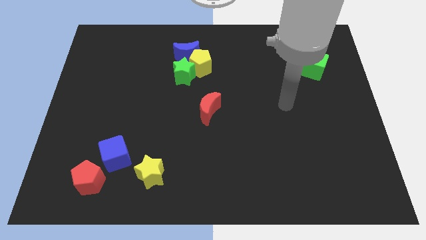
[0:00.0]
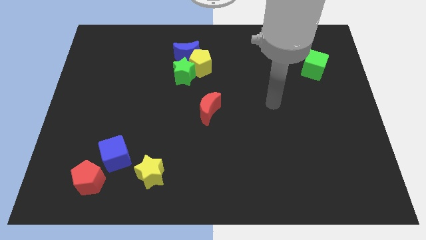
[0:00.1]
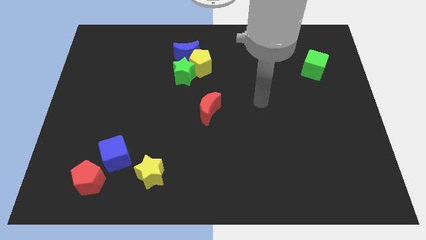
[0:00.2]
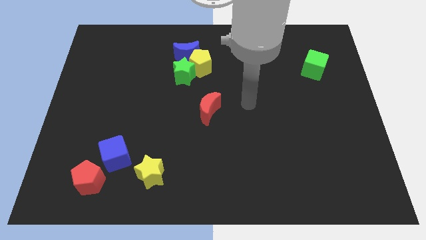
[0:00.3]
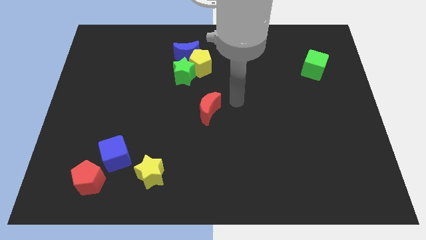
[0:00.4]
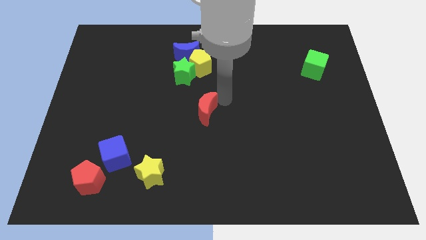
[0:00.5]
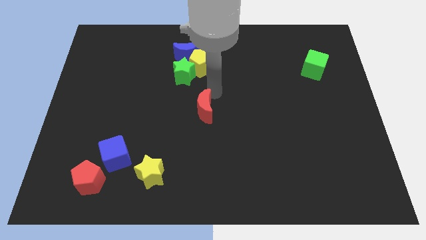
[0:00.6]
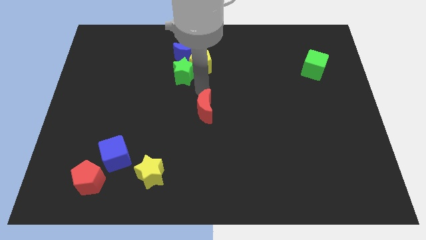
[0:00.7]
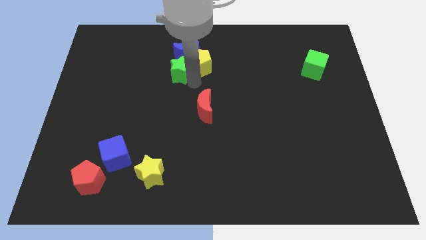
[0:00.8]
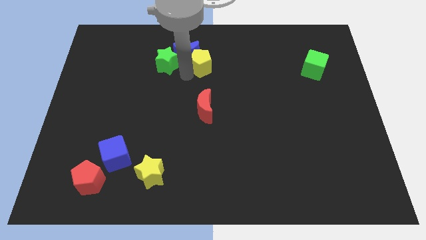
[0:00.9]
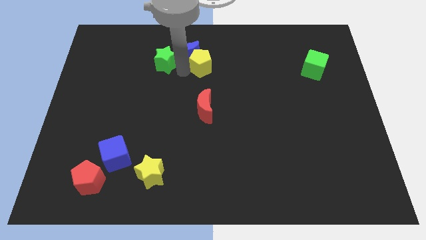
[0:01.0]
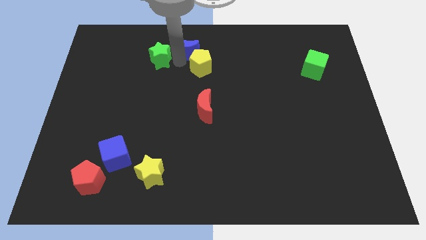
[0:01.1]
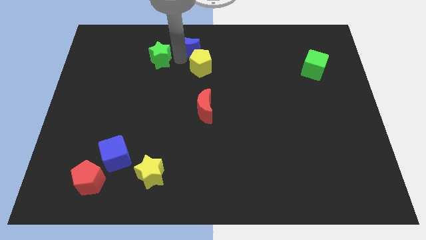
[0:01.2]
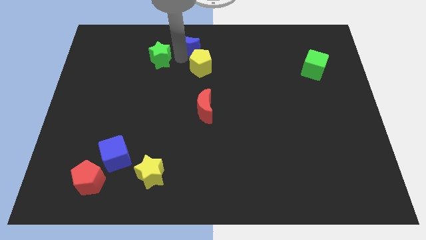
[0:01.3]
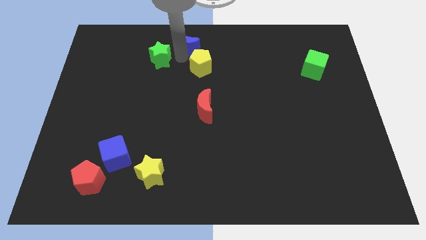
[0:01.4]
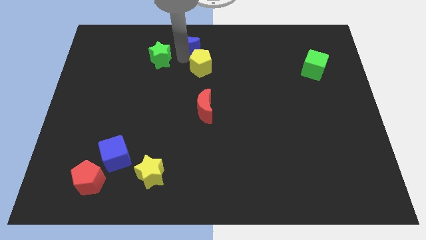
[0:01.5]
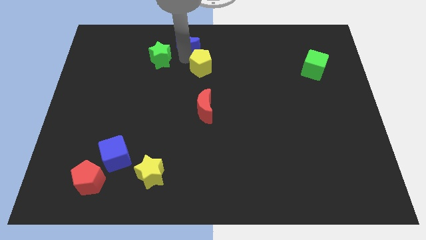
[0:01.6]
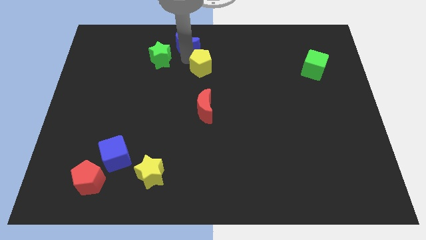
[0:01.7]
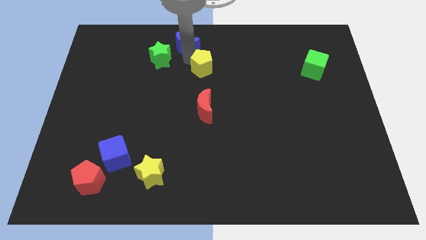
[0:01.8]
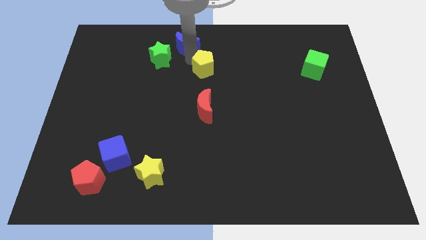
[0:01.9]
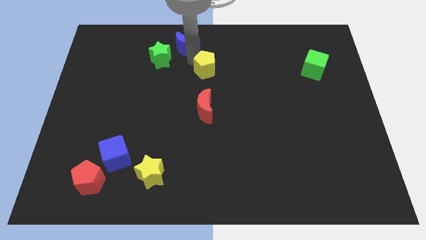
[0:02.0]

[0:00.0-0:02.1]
move the yellow pentagon away from the blue moon and green star

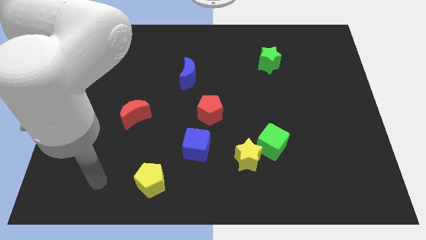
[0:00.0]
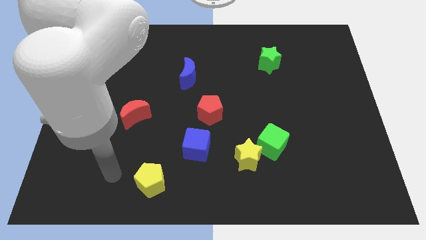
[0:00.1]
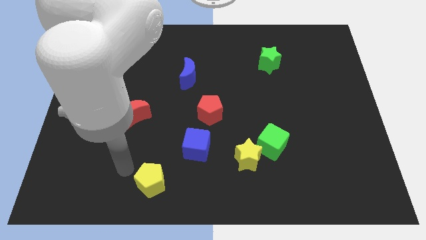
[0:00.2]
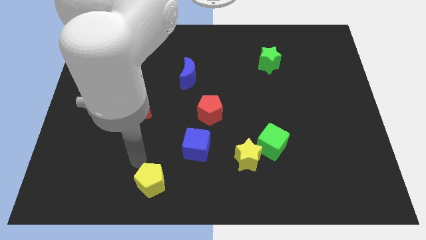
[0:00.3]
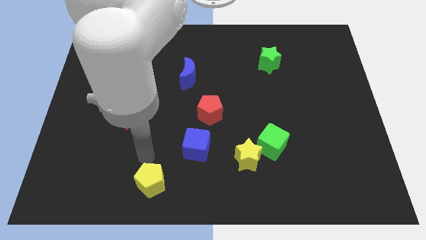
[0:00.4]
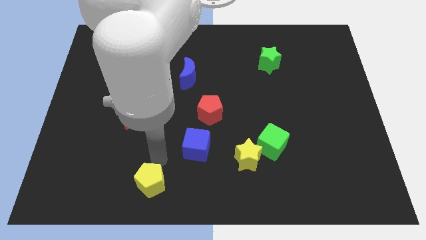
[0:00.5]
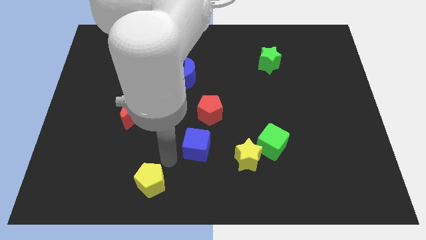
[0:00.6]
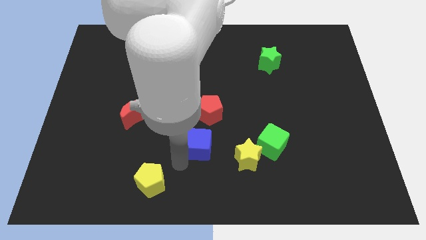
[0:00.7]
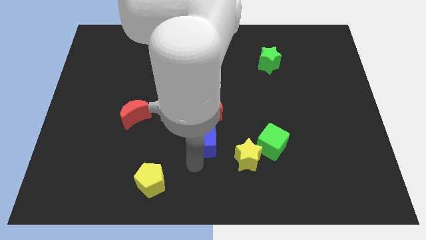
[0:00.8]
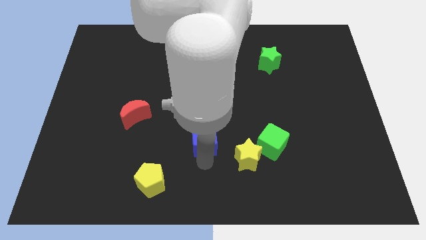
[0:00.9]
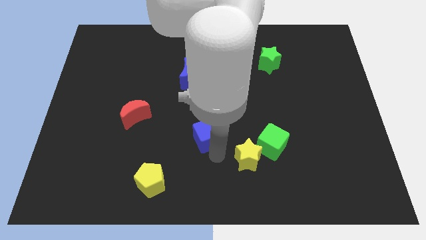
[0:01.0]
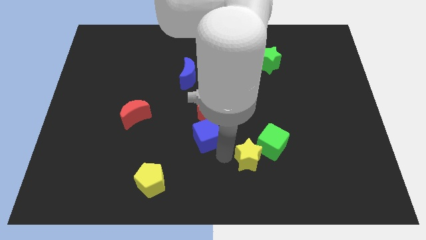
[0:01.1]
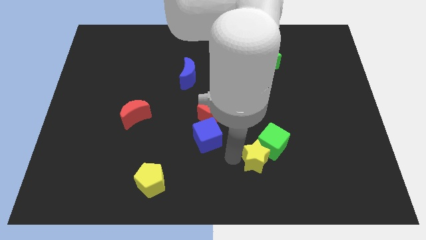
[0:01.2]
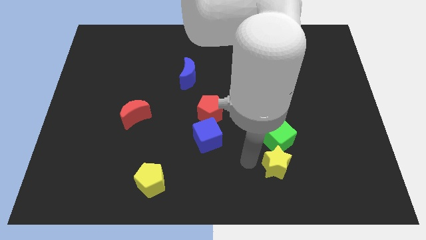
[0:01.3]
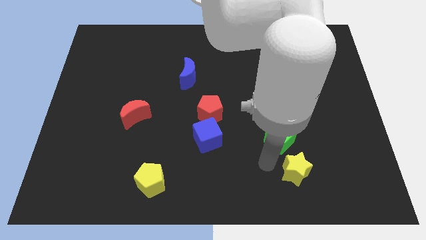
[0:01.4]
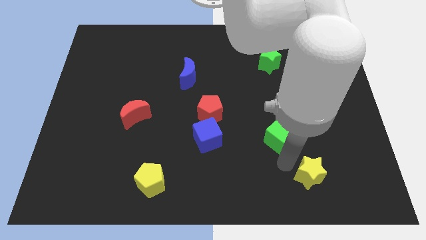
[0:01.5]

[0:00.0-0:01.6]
pull the green cube apart from the yellow star

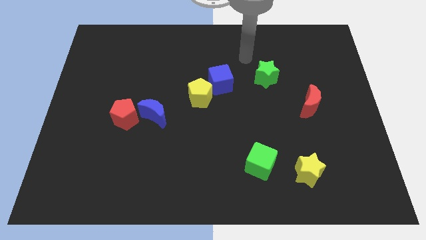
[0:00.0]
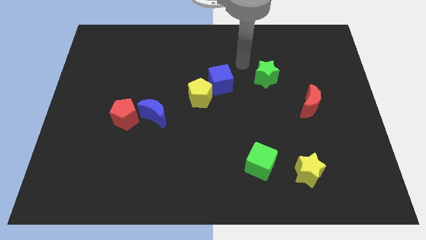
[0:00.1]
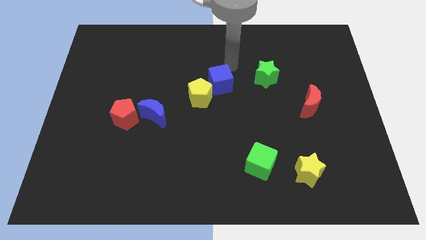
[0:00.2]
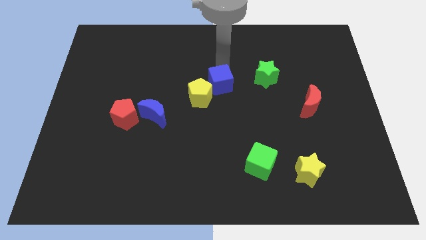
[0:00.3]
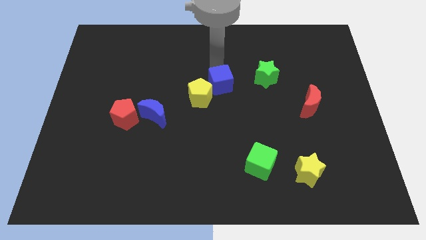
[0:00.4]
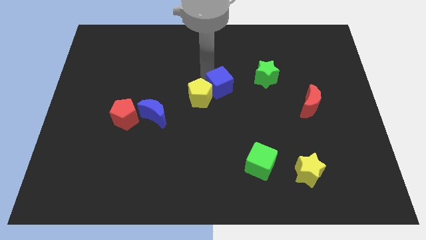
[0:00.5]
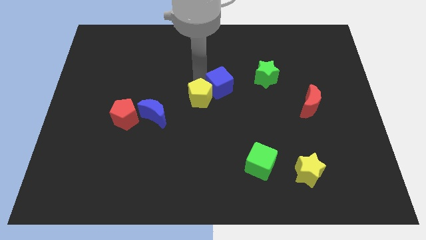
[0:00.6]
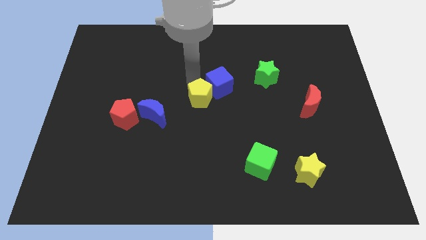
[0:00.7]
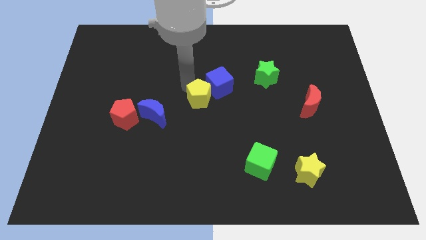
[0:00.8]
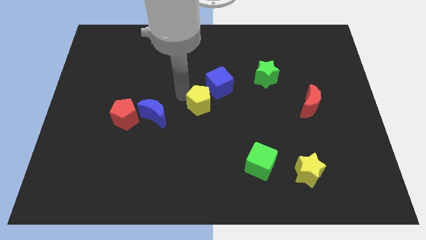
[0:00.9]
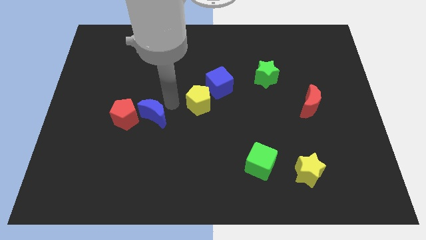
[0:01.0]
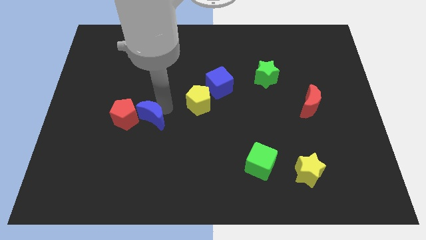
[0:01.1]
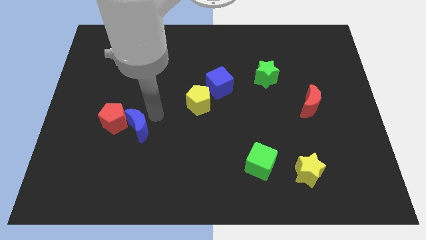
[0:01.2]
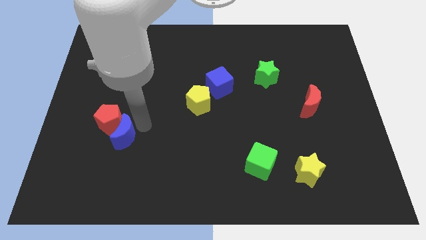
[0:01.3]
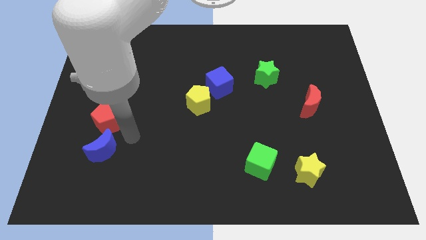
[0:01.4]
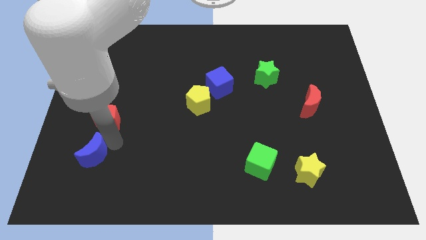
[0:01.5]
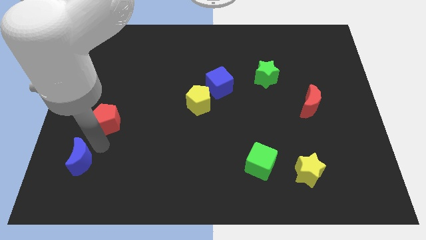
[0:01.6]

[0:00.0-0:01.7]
move the red pentagon away from the blue moon

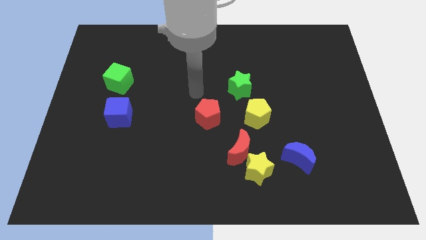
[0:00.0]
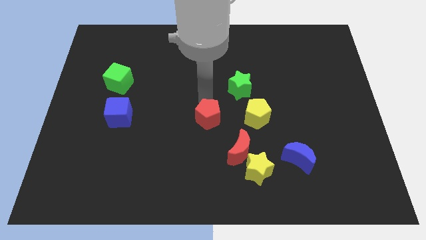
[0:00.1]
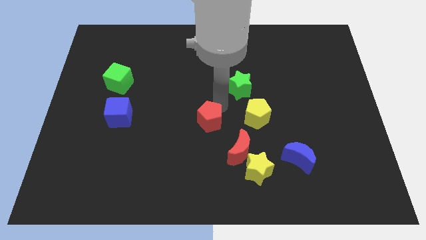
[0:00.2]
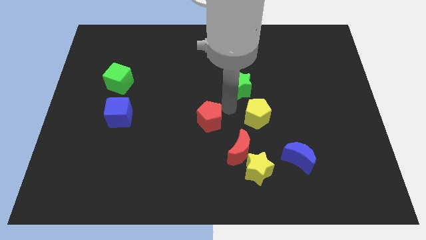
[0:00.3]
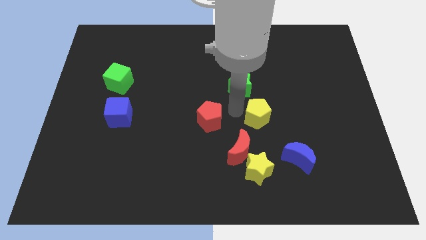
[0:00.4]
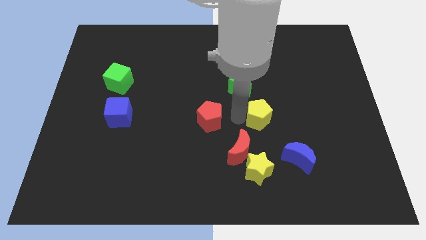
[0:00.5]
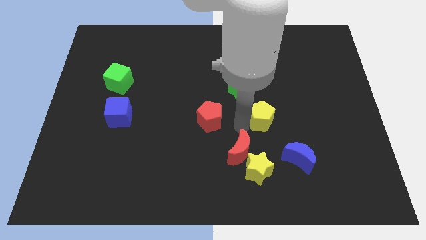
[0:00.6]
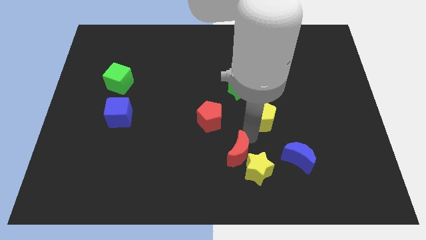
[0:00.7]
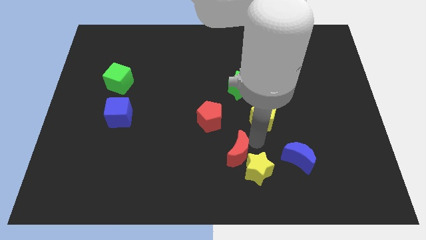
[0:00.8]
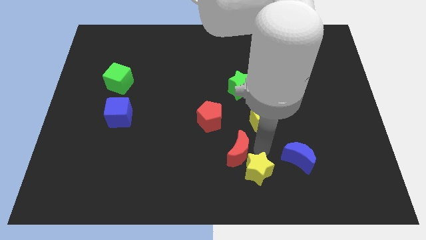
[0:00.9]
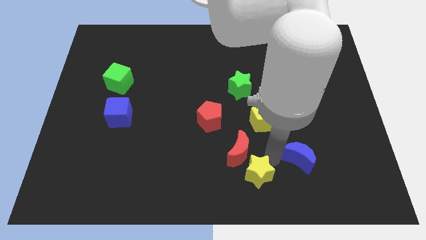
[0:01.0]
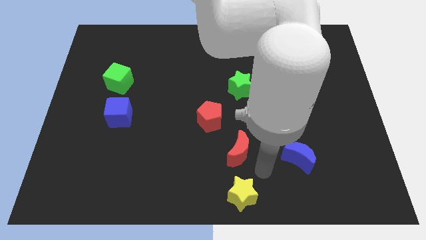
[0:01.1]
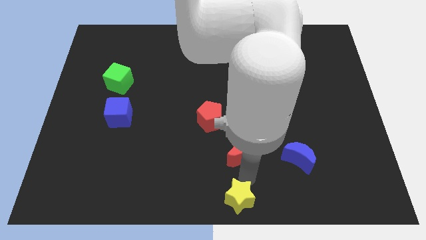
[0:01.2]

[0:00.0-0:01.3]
separate the red moon from the yellow star

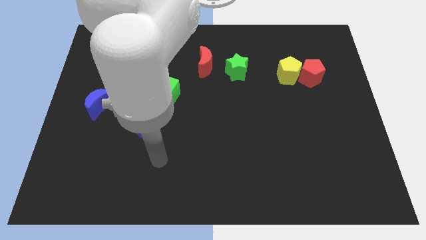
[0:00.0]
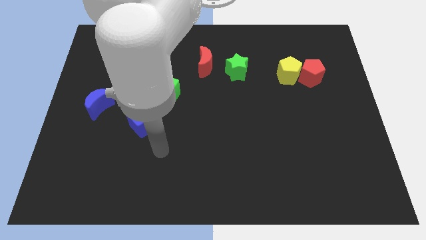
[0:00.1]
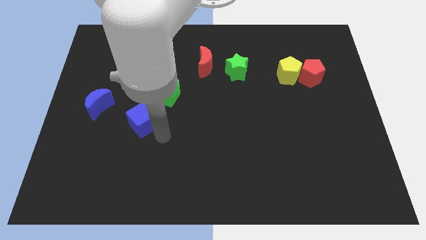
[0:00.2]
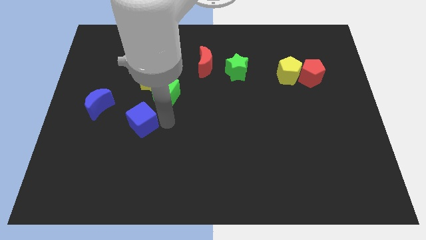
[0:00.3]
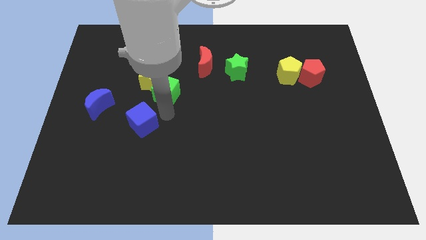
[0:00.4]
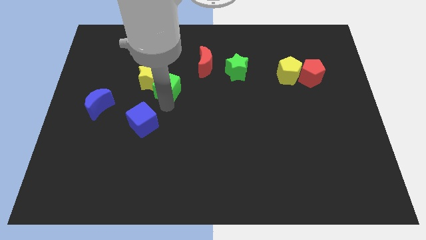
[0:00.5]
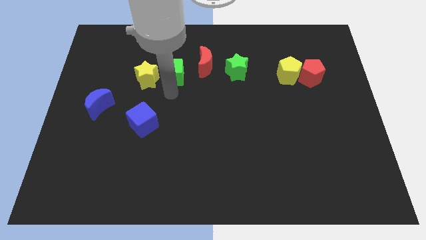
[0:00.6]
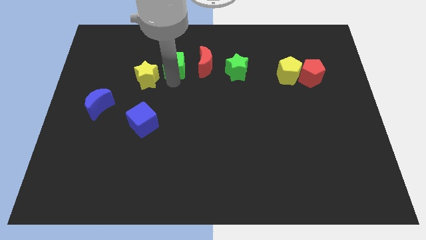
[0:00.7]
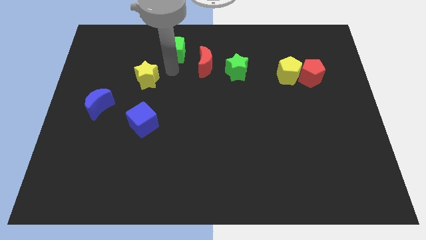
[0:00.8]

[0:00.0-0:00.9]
move the yellow star away from the green cube

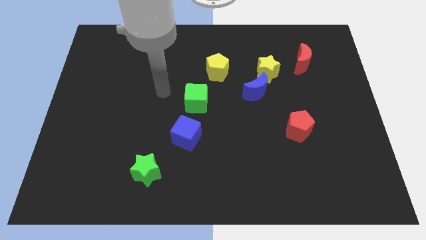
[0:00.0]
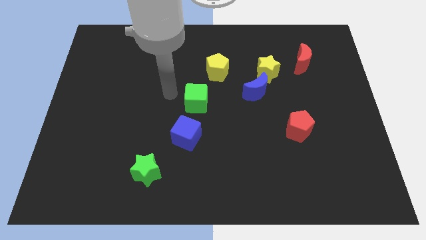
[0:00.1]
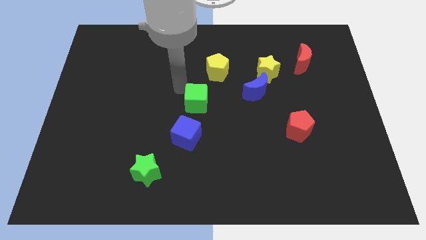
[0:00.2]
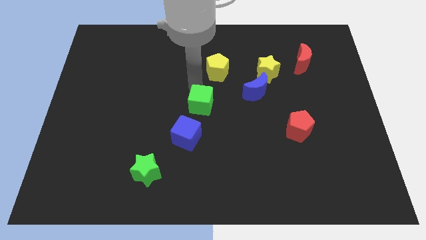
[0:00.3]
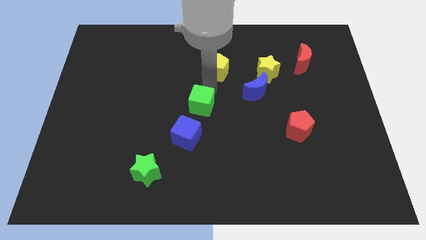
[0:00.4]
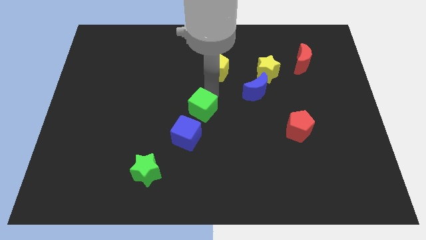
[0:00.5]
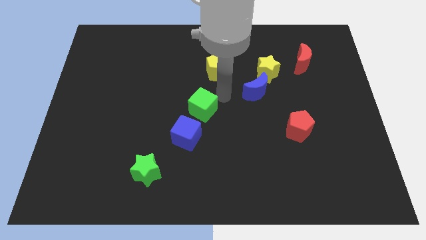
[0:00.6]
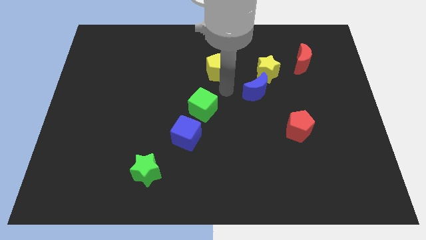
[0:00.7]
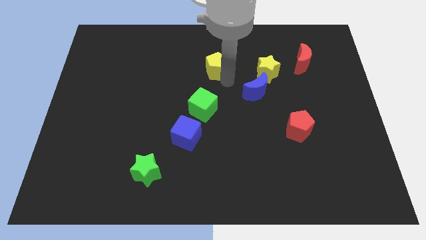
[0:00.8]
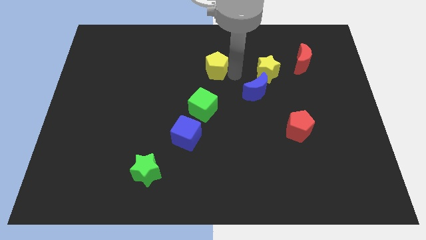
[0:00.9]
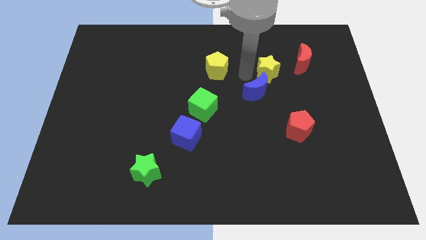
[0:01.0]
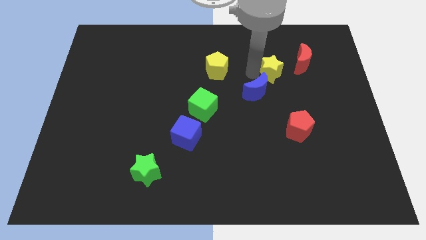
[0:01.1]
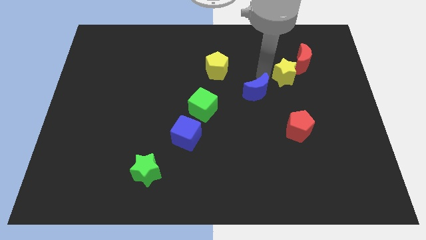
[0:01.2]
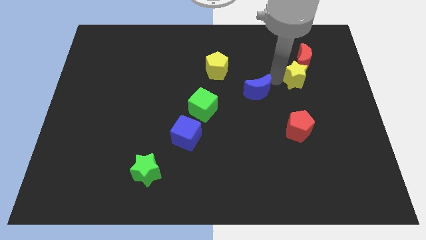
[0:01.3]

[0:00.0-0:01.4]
move the blue moon away from the yellow star

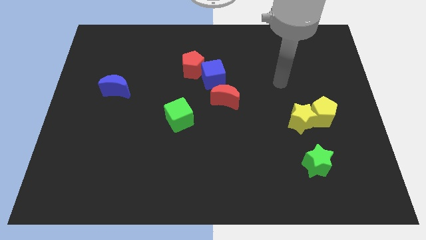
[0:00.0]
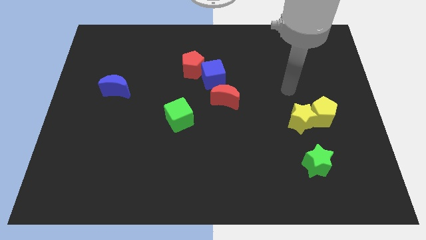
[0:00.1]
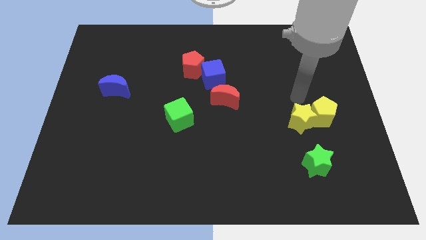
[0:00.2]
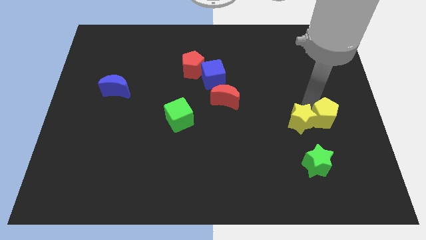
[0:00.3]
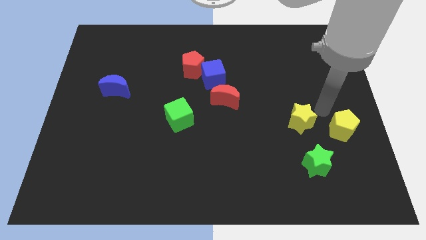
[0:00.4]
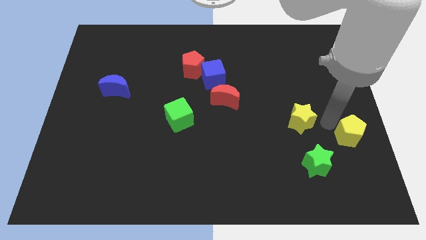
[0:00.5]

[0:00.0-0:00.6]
move the yellow star away from the yellow pentagon
